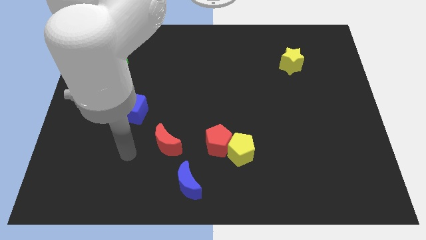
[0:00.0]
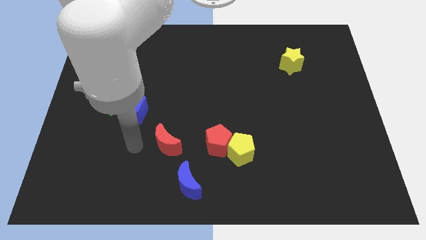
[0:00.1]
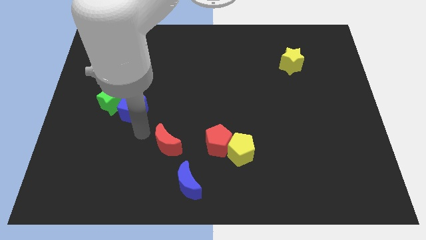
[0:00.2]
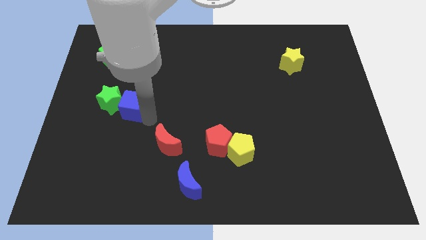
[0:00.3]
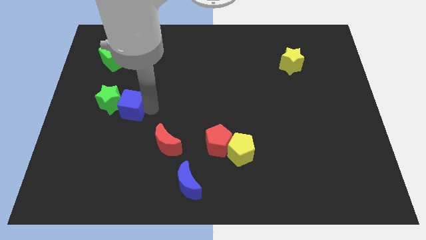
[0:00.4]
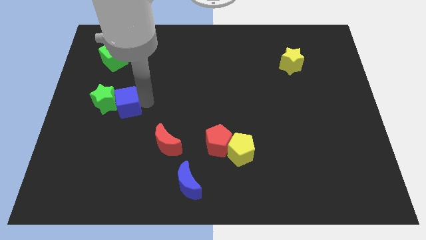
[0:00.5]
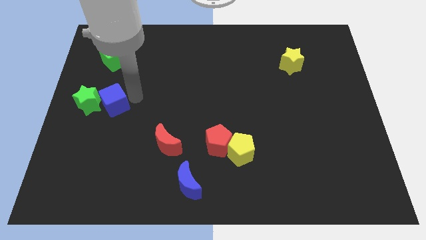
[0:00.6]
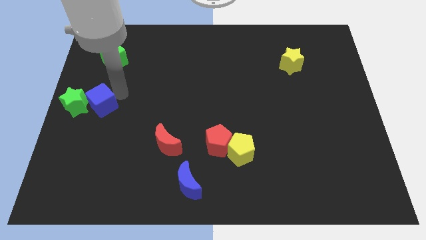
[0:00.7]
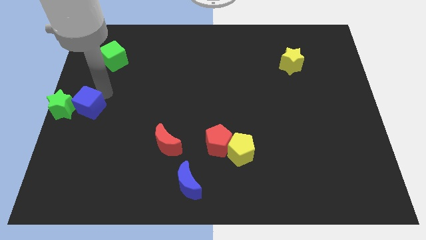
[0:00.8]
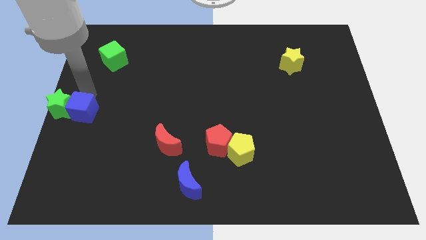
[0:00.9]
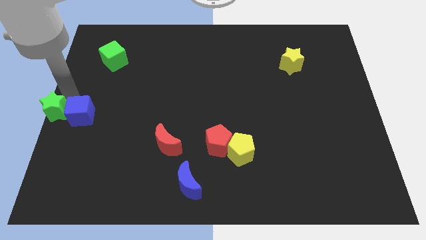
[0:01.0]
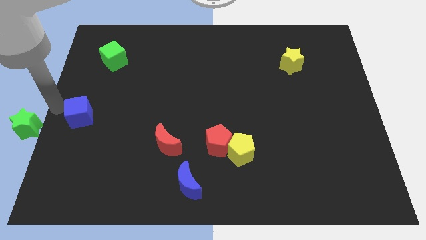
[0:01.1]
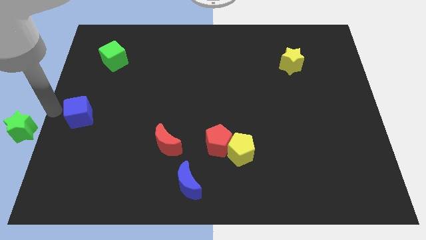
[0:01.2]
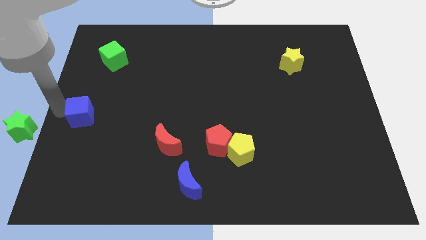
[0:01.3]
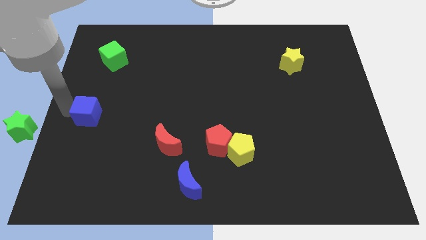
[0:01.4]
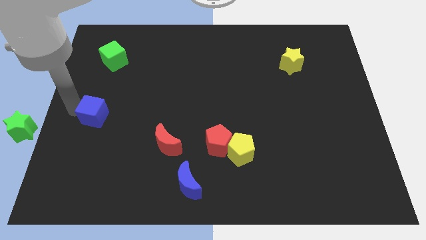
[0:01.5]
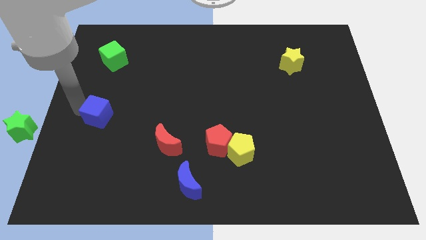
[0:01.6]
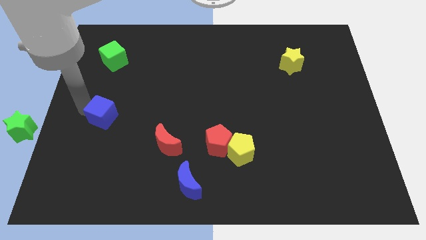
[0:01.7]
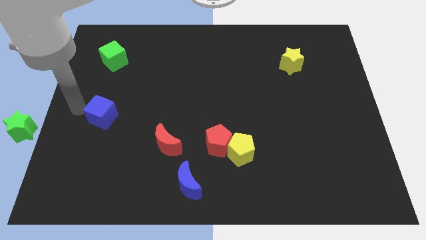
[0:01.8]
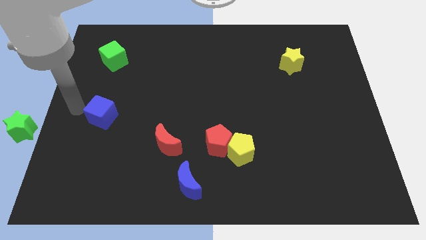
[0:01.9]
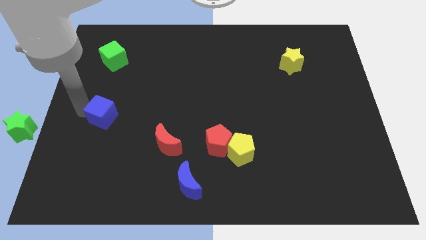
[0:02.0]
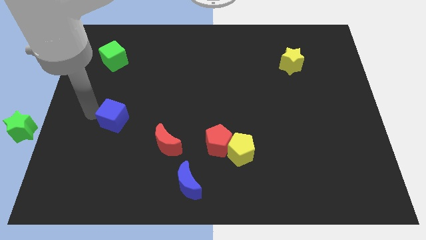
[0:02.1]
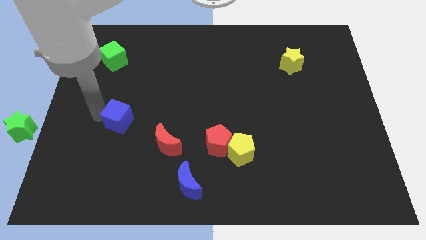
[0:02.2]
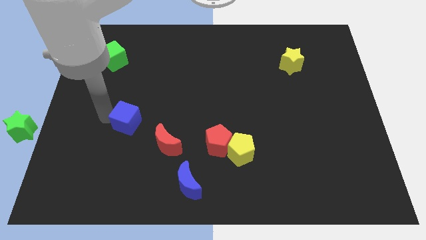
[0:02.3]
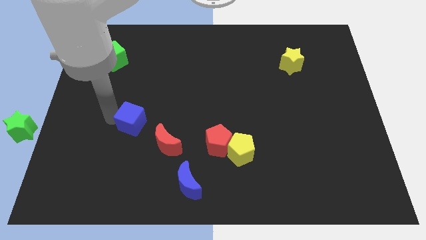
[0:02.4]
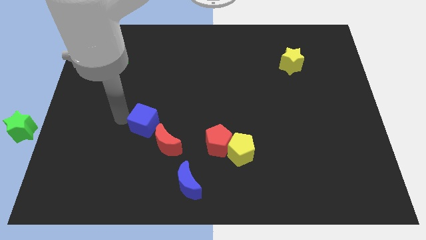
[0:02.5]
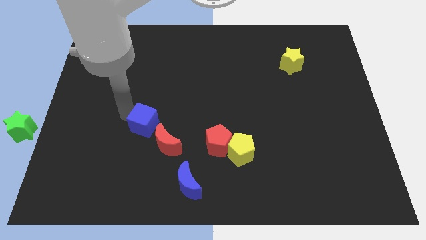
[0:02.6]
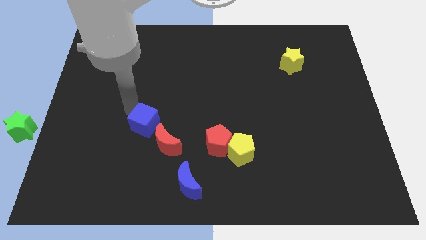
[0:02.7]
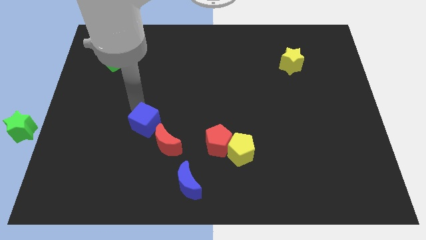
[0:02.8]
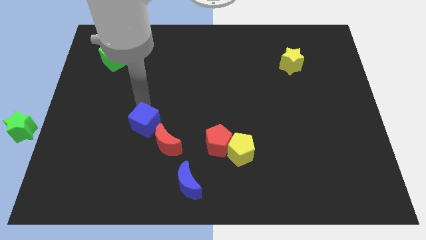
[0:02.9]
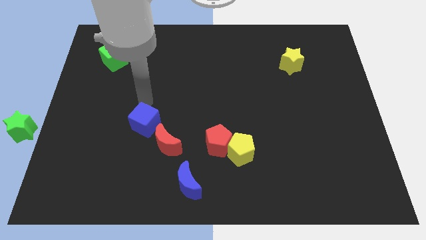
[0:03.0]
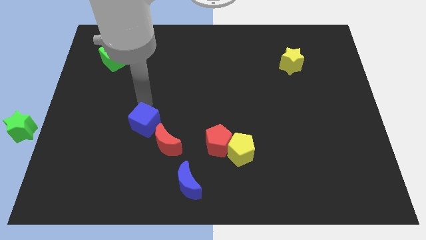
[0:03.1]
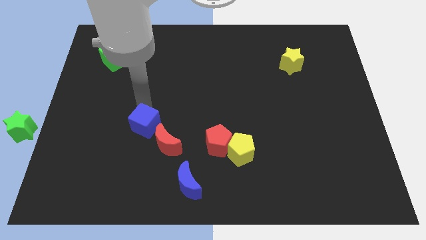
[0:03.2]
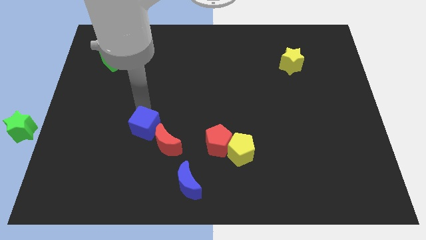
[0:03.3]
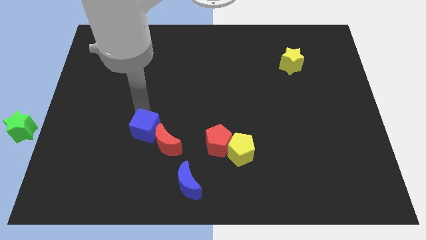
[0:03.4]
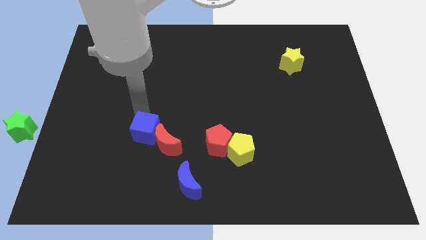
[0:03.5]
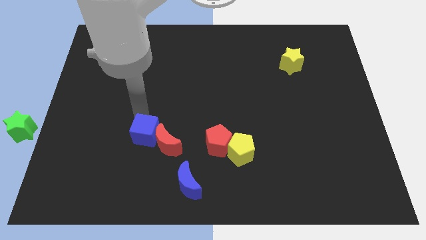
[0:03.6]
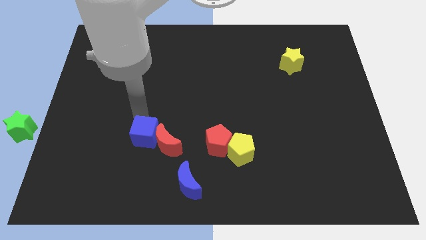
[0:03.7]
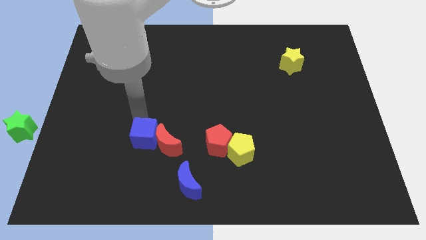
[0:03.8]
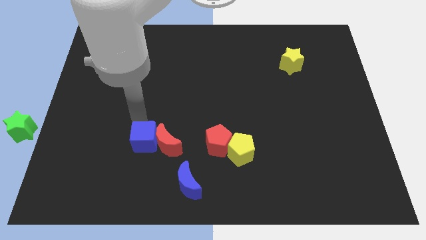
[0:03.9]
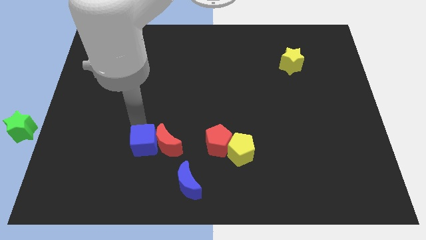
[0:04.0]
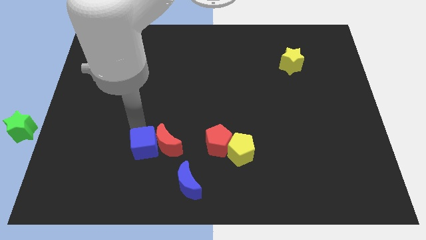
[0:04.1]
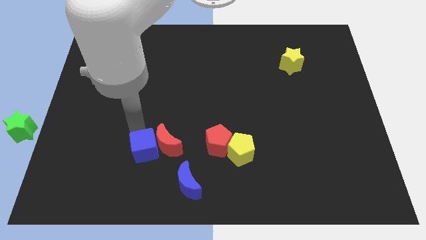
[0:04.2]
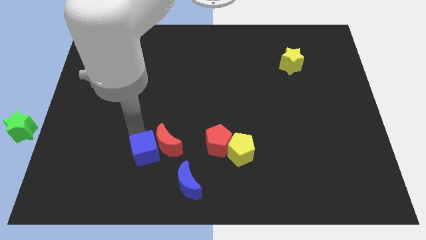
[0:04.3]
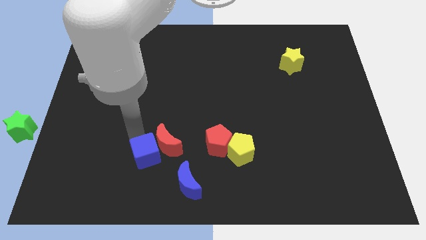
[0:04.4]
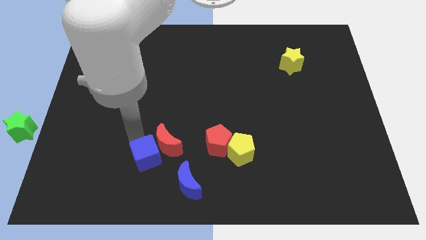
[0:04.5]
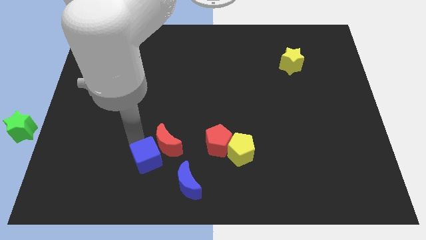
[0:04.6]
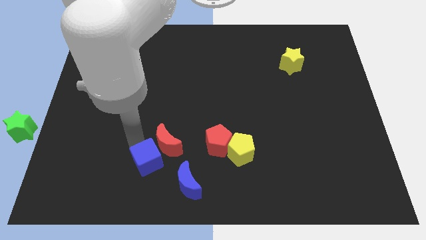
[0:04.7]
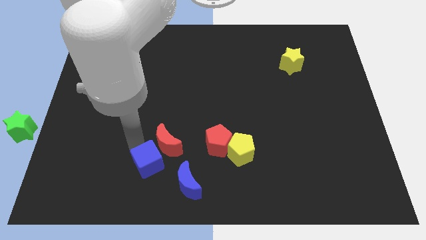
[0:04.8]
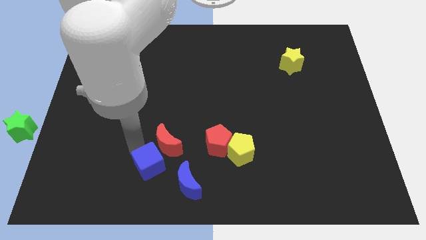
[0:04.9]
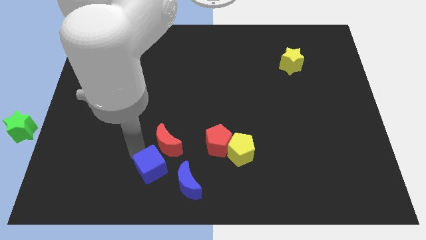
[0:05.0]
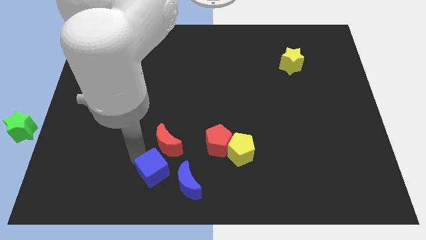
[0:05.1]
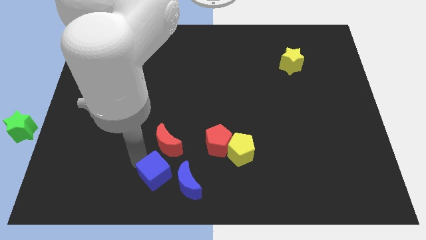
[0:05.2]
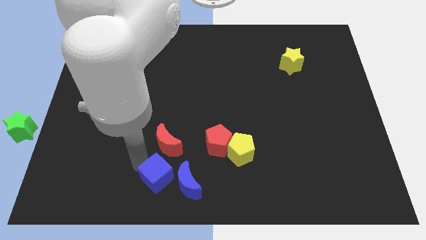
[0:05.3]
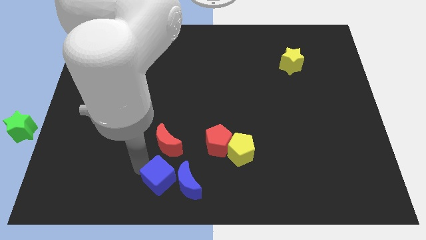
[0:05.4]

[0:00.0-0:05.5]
slide the blue cube close to the blue moon

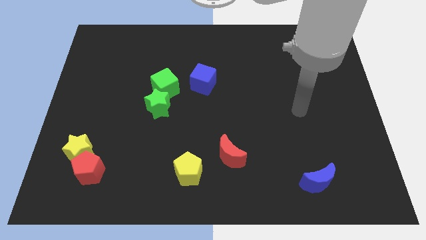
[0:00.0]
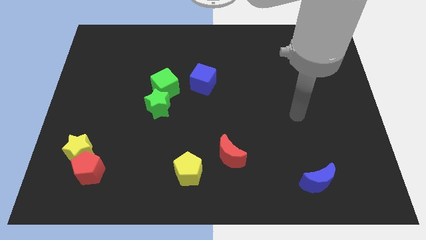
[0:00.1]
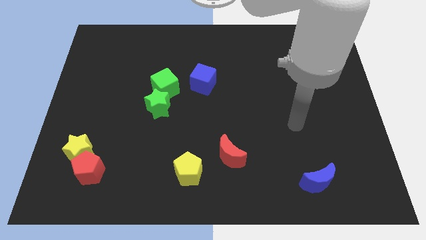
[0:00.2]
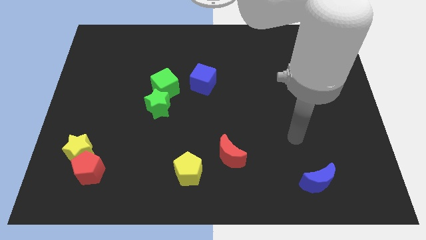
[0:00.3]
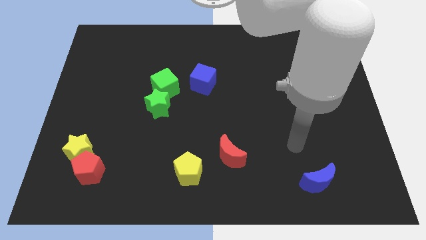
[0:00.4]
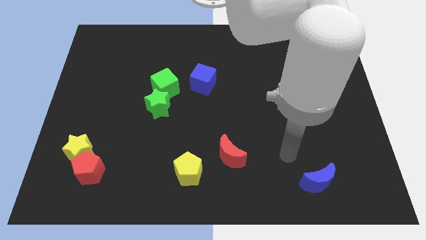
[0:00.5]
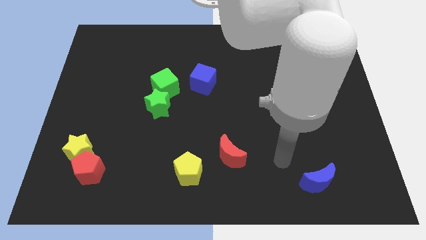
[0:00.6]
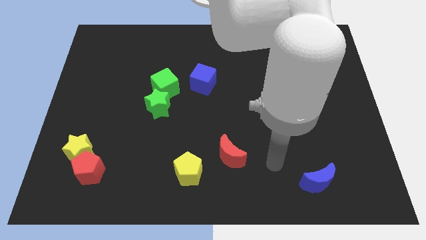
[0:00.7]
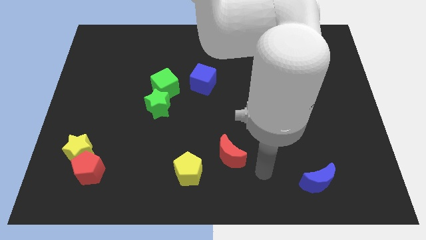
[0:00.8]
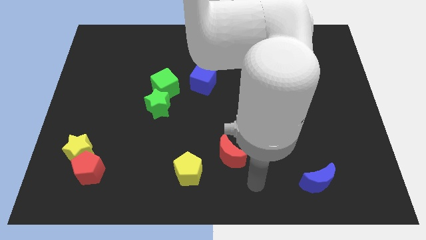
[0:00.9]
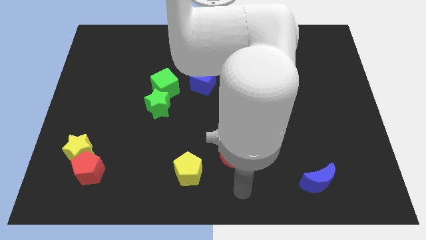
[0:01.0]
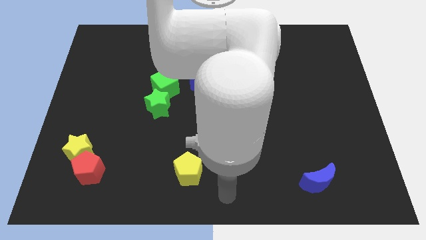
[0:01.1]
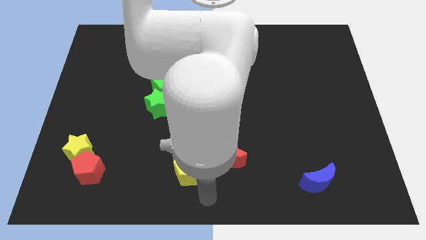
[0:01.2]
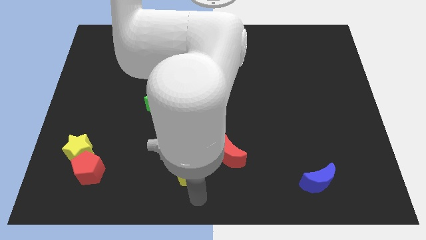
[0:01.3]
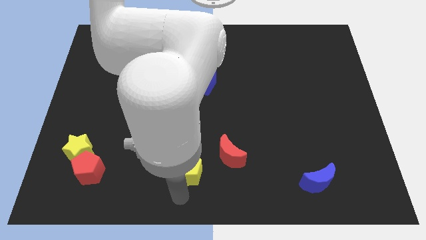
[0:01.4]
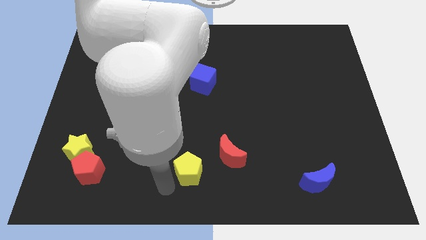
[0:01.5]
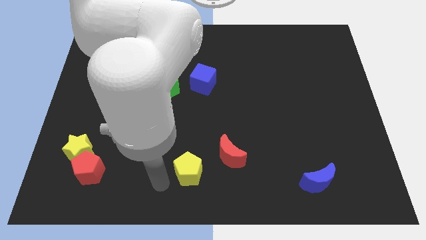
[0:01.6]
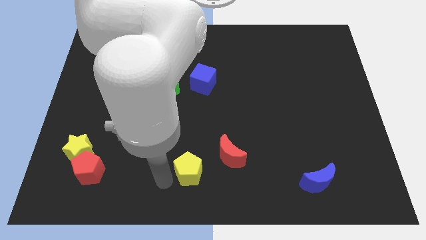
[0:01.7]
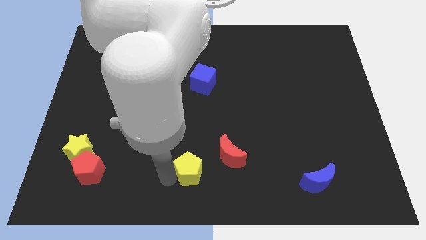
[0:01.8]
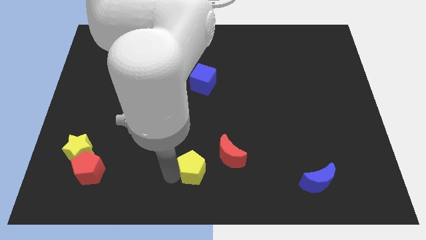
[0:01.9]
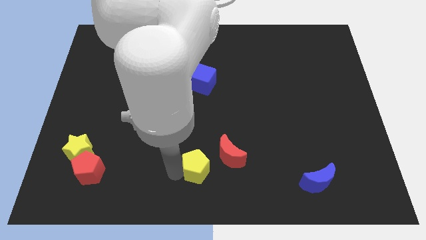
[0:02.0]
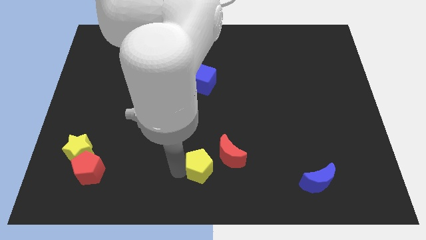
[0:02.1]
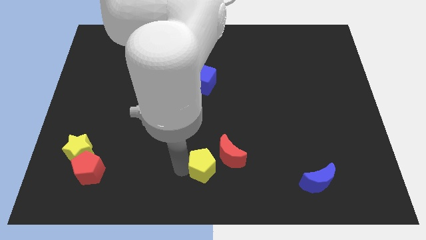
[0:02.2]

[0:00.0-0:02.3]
push the yellow pentagon close to the red moon
